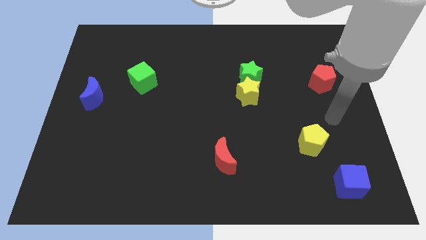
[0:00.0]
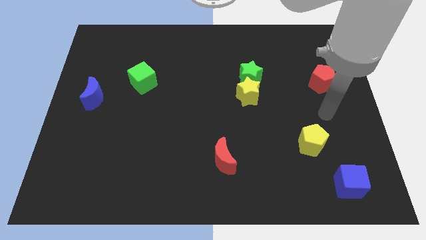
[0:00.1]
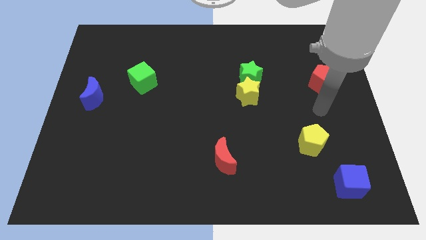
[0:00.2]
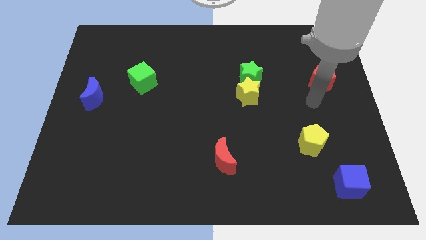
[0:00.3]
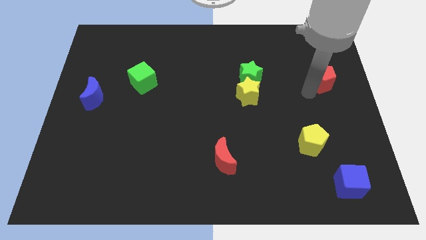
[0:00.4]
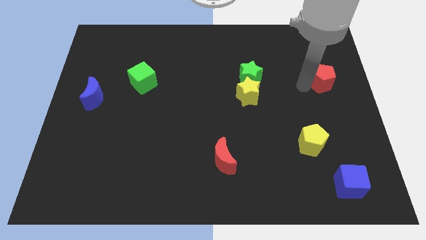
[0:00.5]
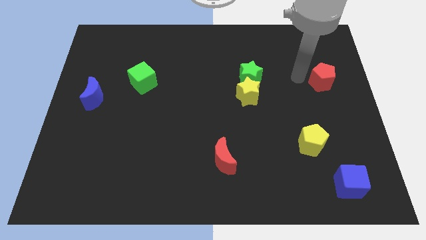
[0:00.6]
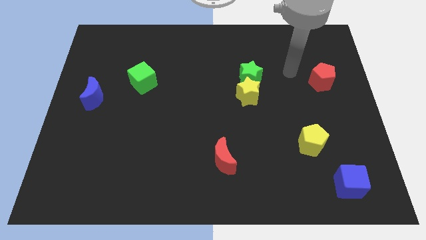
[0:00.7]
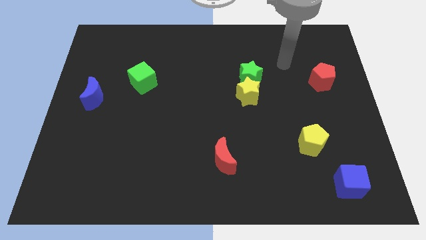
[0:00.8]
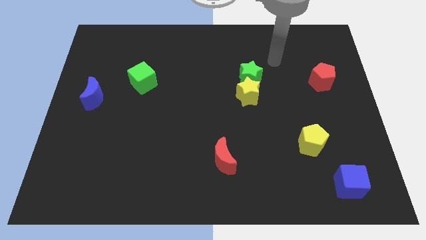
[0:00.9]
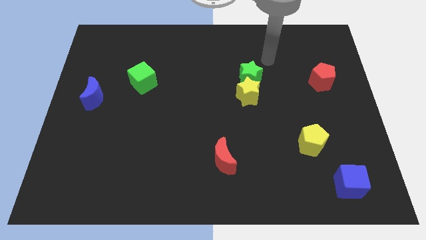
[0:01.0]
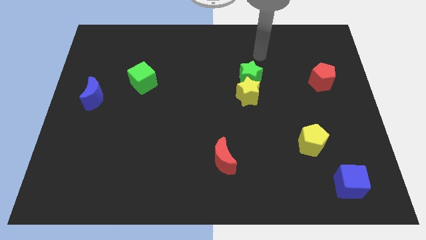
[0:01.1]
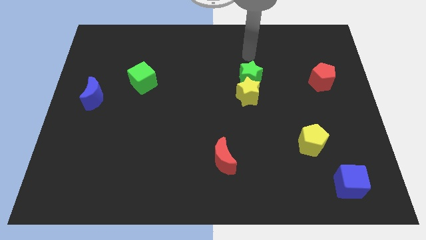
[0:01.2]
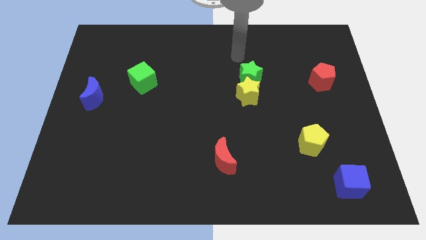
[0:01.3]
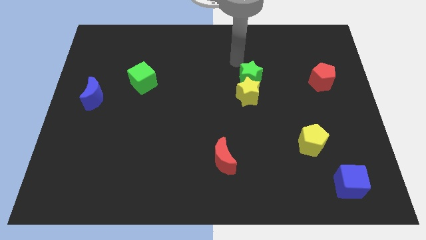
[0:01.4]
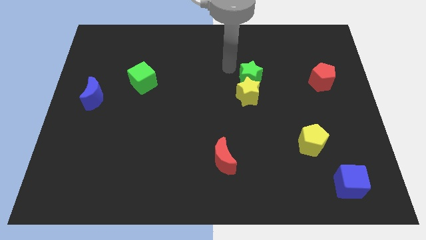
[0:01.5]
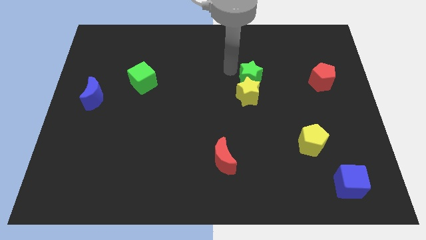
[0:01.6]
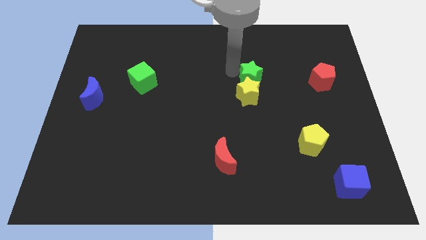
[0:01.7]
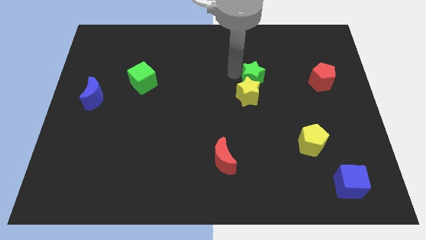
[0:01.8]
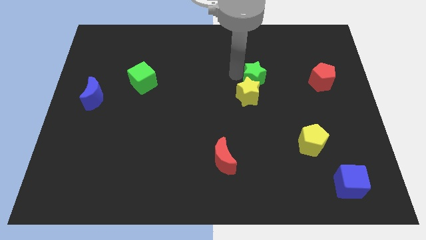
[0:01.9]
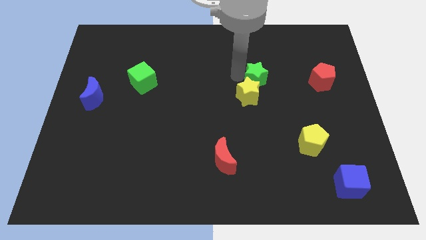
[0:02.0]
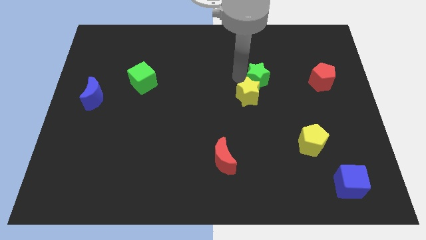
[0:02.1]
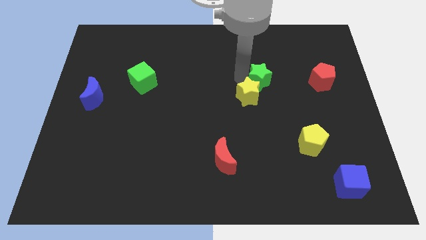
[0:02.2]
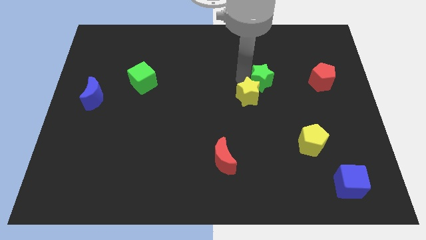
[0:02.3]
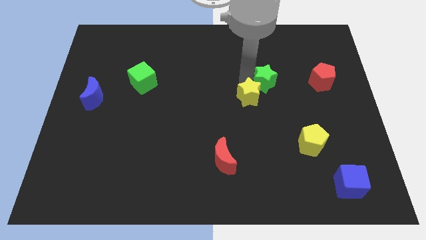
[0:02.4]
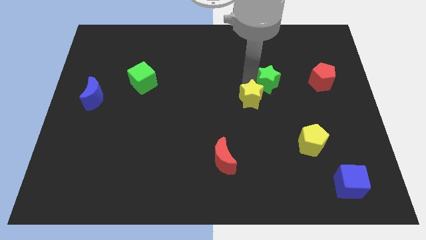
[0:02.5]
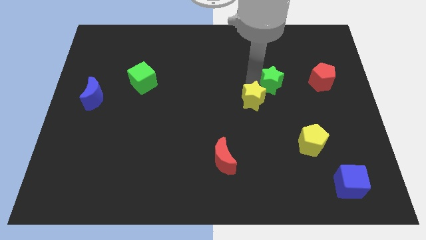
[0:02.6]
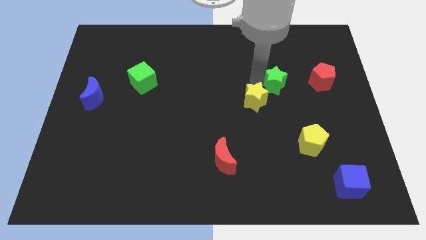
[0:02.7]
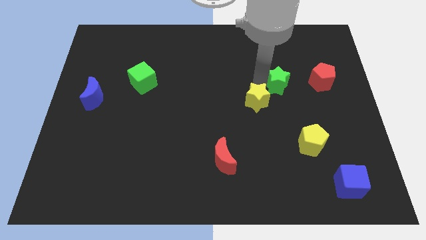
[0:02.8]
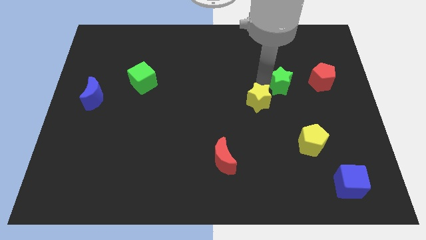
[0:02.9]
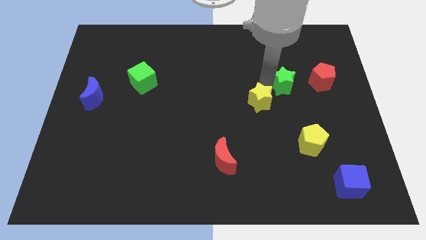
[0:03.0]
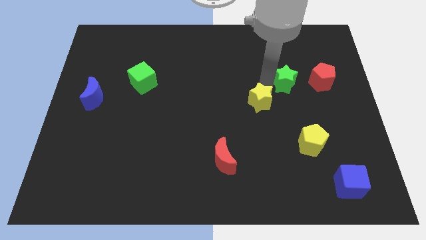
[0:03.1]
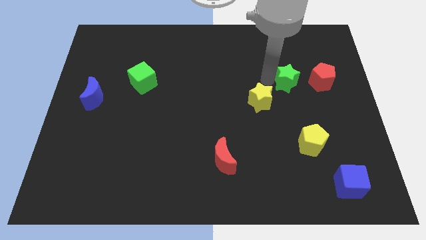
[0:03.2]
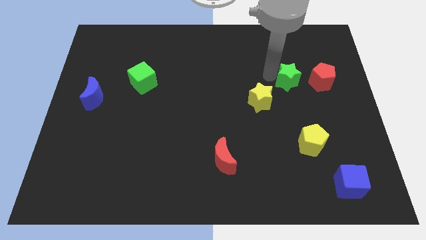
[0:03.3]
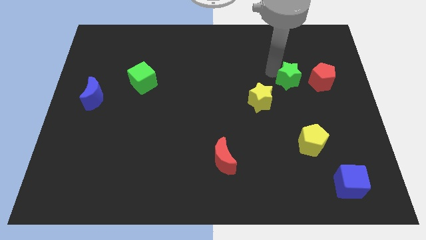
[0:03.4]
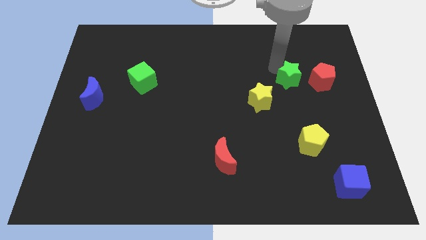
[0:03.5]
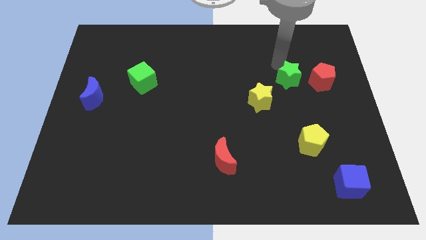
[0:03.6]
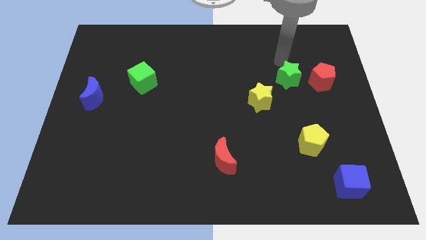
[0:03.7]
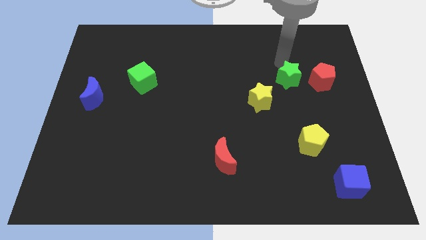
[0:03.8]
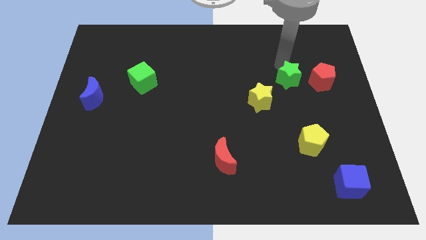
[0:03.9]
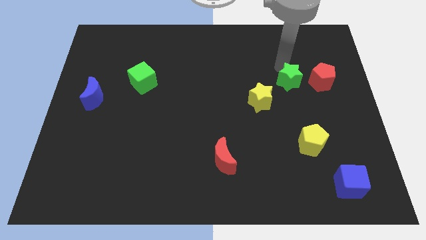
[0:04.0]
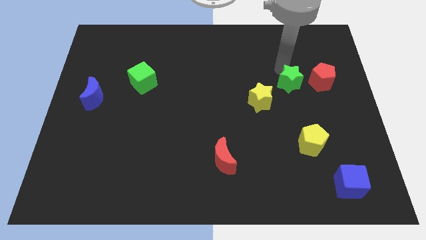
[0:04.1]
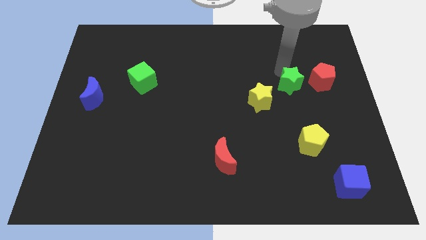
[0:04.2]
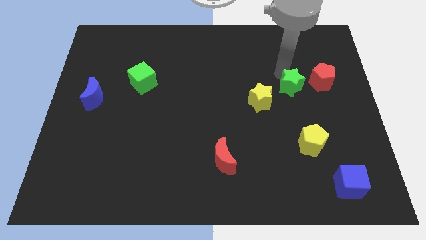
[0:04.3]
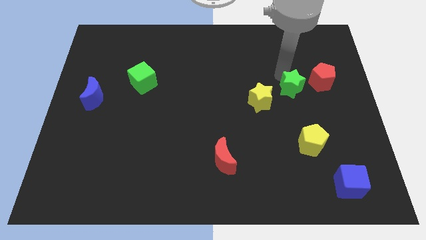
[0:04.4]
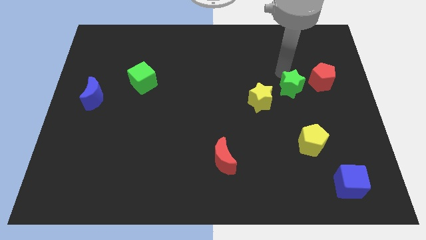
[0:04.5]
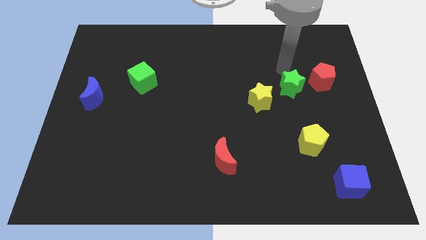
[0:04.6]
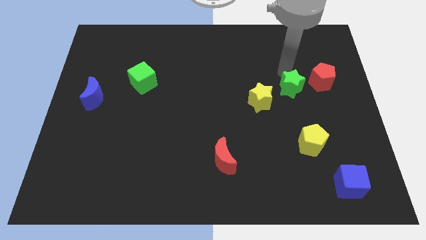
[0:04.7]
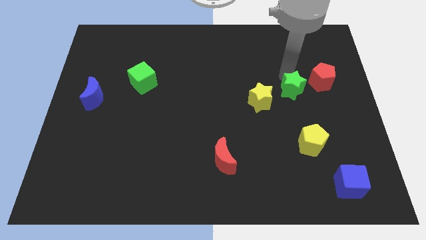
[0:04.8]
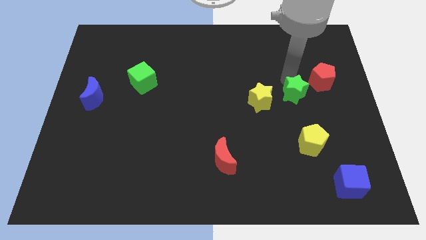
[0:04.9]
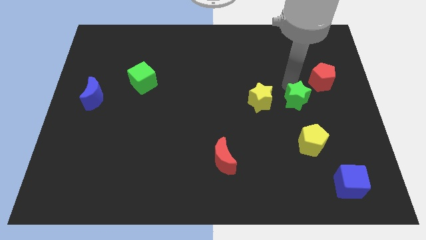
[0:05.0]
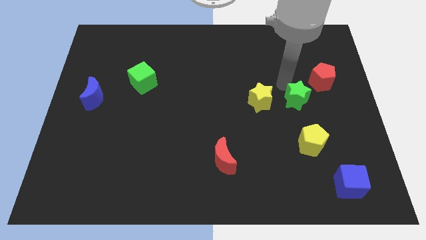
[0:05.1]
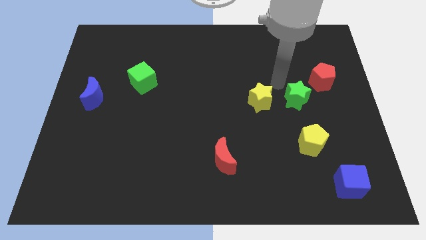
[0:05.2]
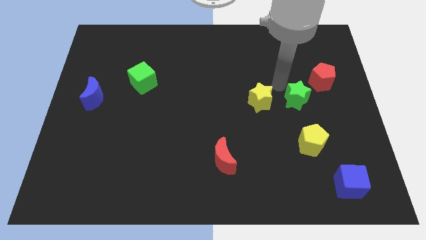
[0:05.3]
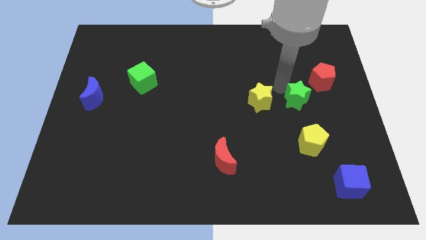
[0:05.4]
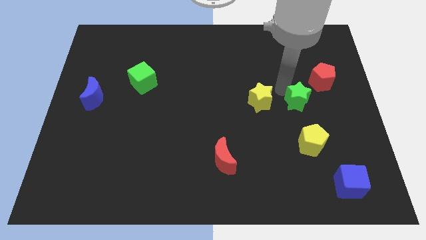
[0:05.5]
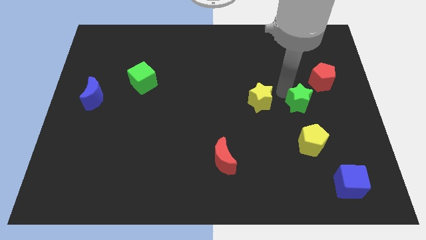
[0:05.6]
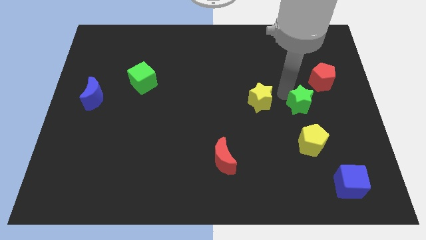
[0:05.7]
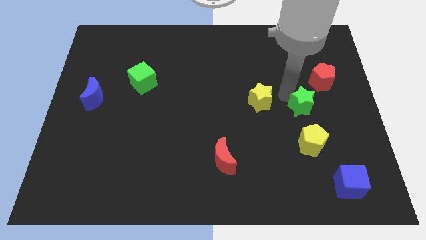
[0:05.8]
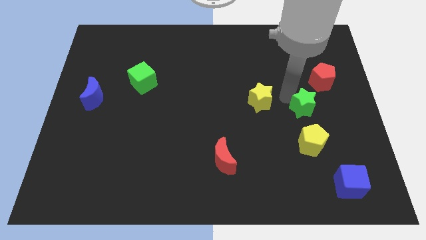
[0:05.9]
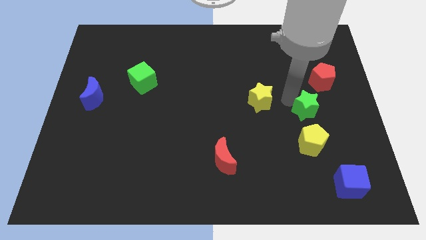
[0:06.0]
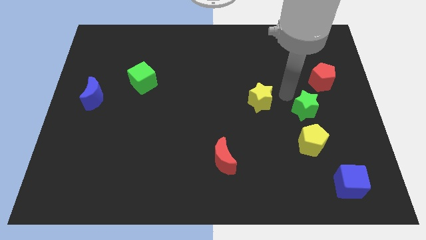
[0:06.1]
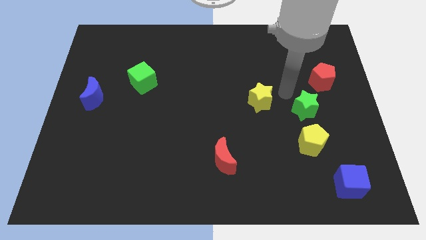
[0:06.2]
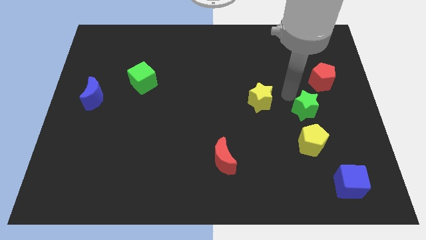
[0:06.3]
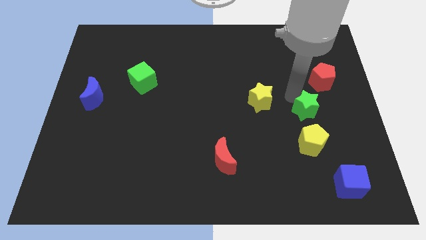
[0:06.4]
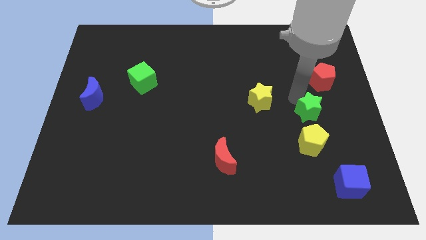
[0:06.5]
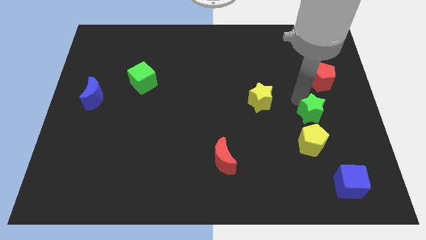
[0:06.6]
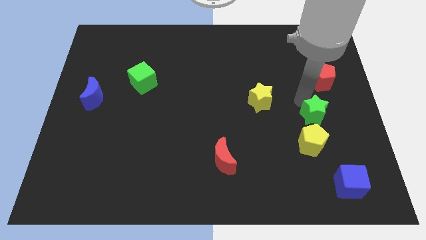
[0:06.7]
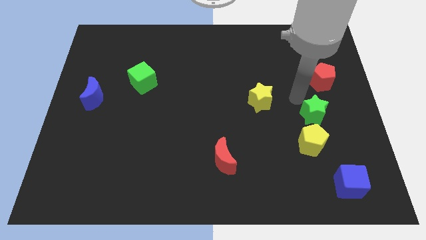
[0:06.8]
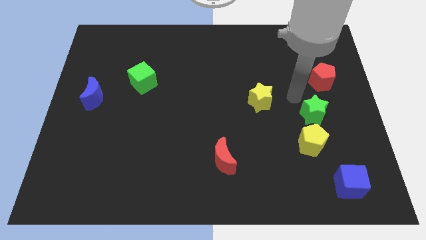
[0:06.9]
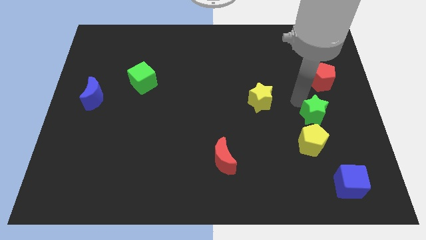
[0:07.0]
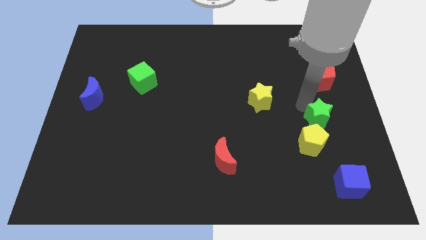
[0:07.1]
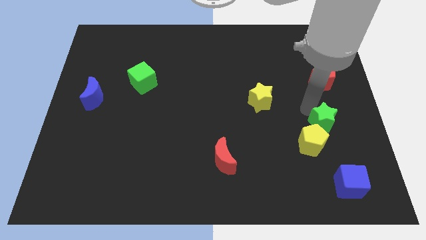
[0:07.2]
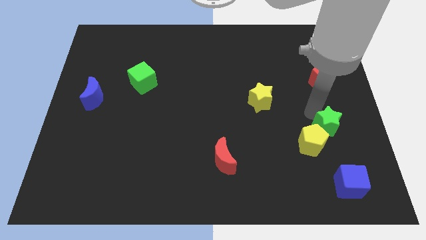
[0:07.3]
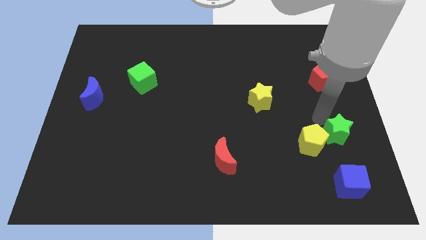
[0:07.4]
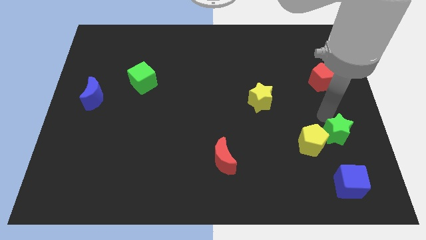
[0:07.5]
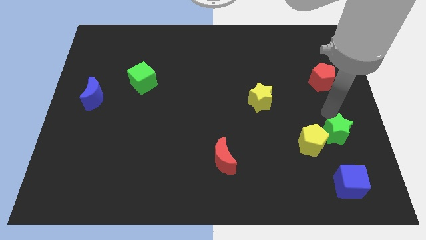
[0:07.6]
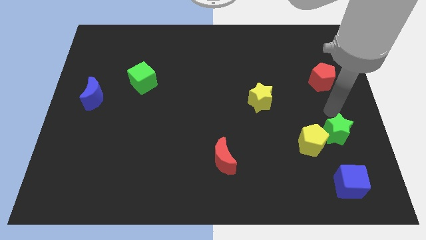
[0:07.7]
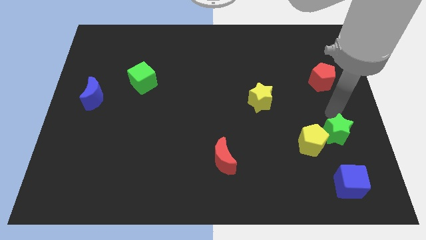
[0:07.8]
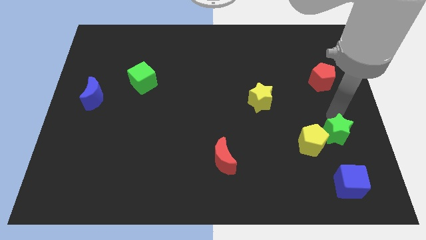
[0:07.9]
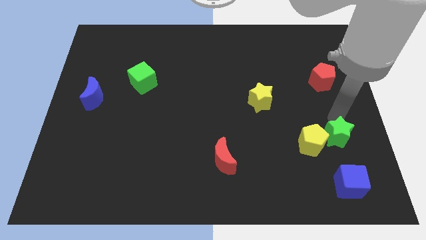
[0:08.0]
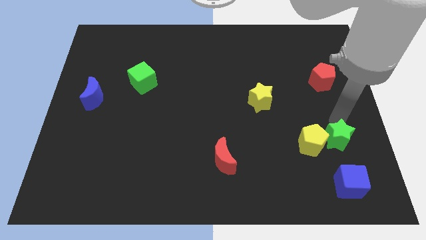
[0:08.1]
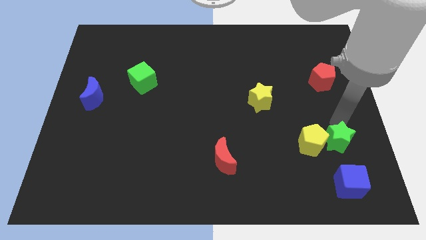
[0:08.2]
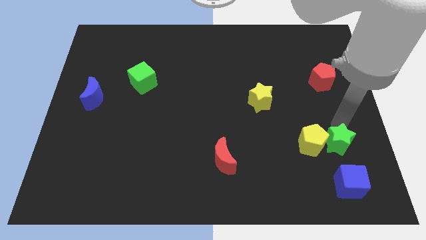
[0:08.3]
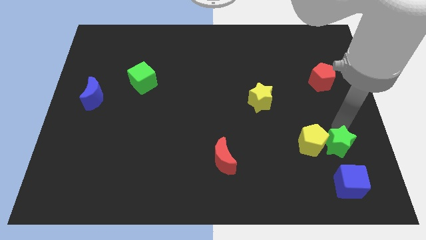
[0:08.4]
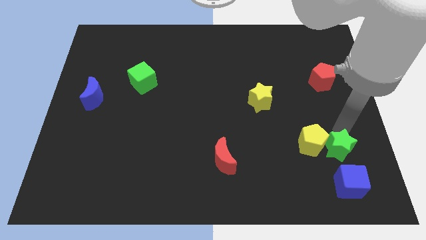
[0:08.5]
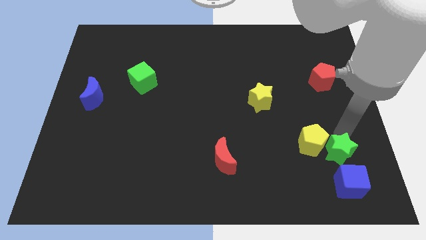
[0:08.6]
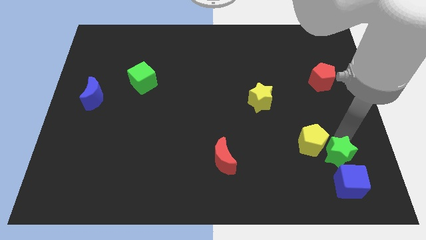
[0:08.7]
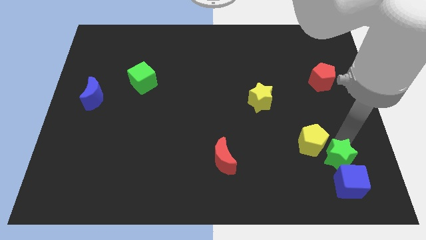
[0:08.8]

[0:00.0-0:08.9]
push the green star next to the blue cube
